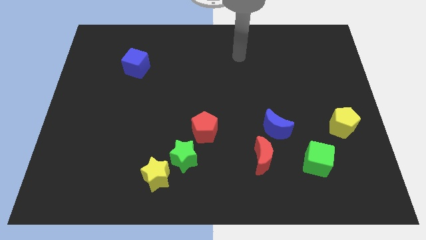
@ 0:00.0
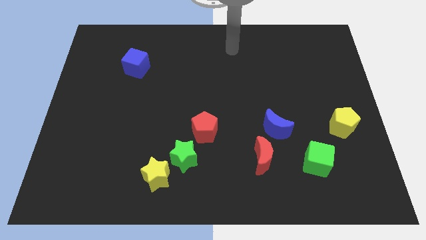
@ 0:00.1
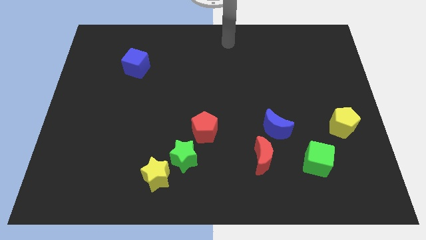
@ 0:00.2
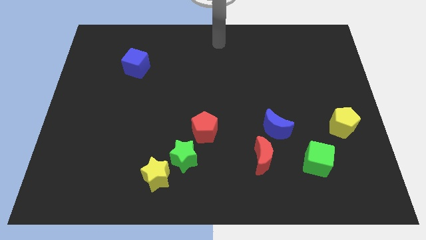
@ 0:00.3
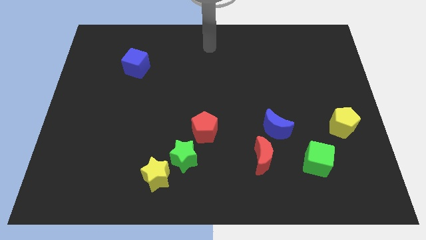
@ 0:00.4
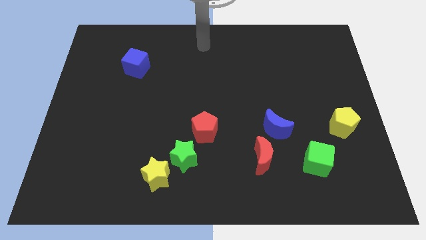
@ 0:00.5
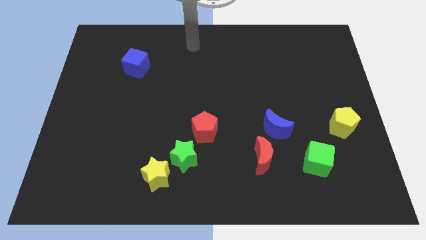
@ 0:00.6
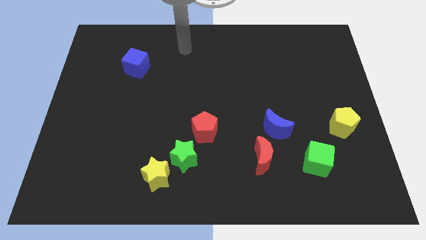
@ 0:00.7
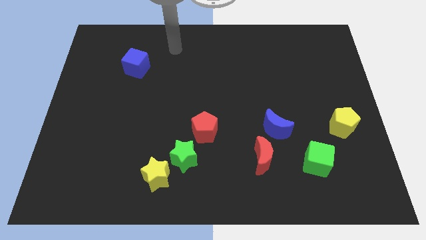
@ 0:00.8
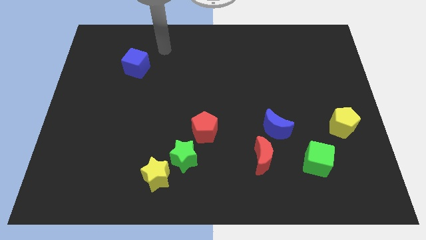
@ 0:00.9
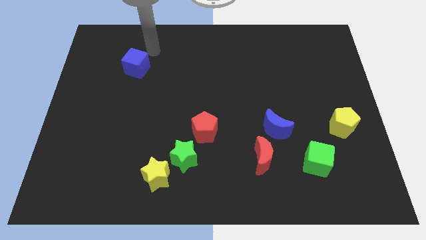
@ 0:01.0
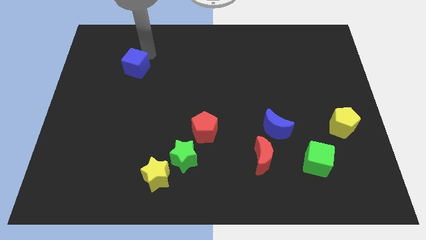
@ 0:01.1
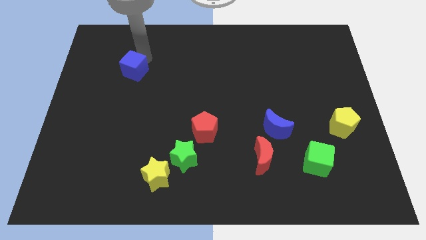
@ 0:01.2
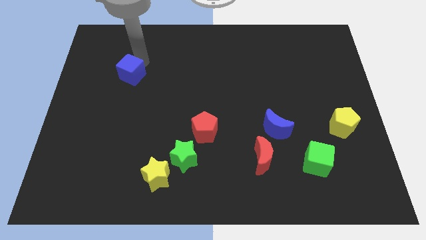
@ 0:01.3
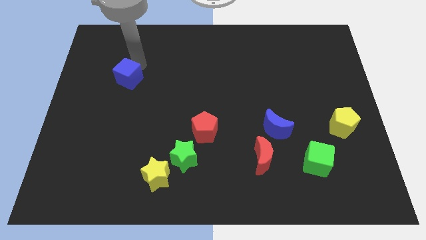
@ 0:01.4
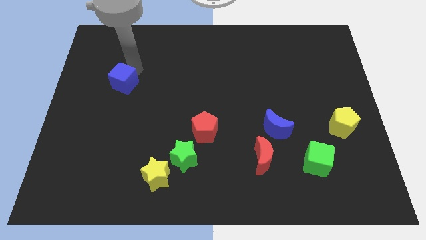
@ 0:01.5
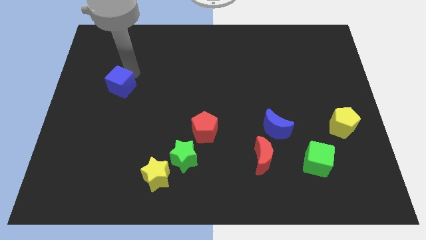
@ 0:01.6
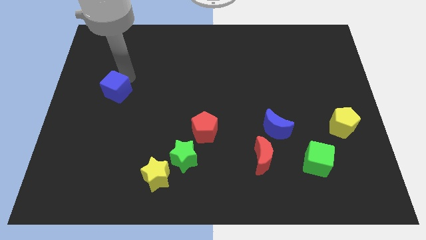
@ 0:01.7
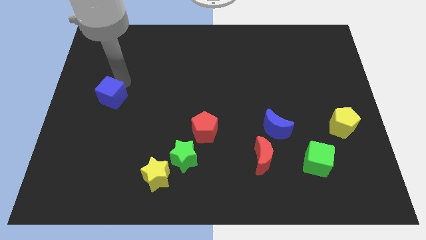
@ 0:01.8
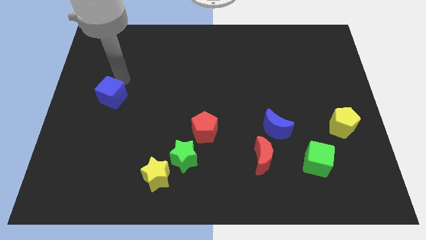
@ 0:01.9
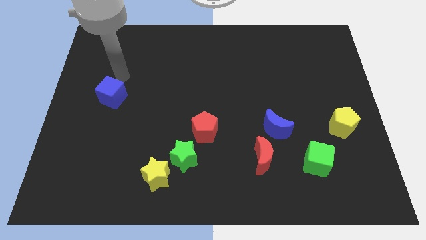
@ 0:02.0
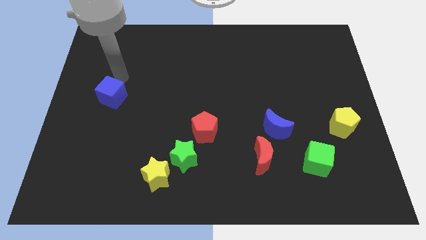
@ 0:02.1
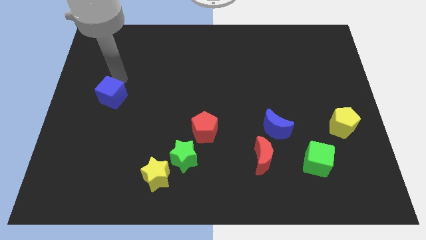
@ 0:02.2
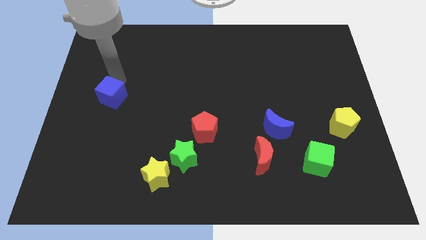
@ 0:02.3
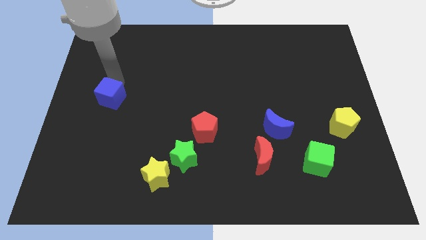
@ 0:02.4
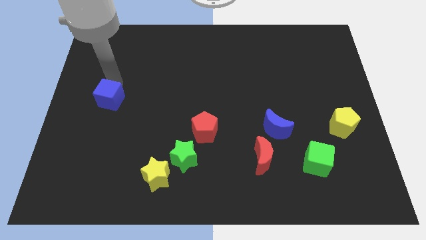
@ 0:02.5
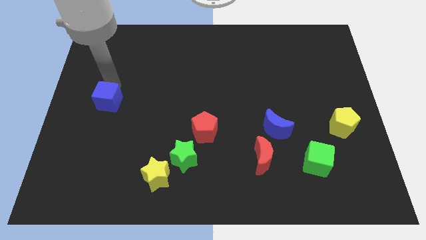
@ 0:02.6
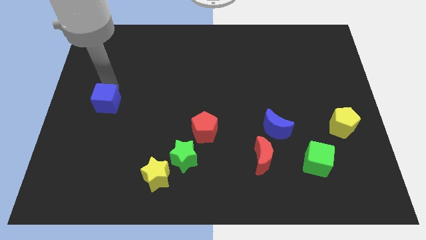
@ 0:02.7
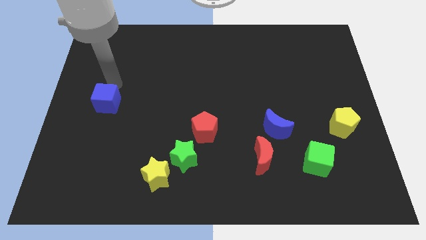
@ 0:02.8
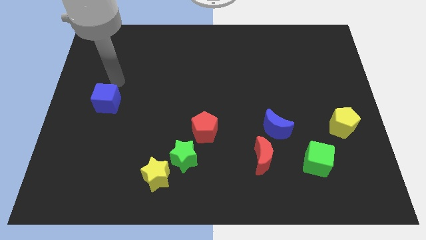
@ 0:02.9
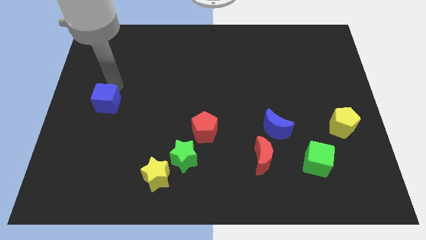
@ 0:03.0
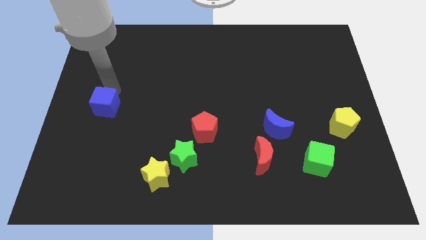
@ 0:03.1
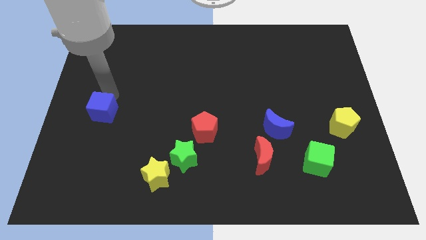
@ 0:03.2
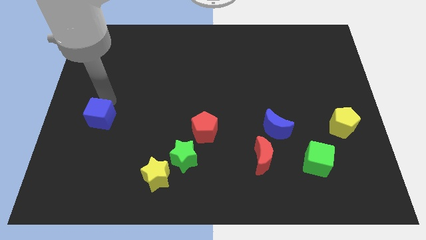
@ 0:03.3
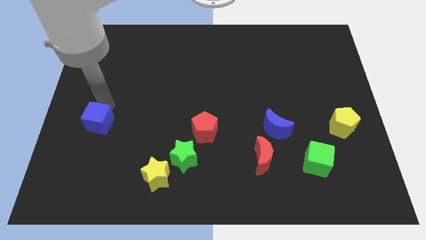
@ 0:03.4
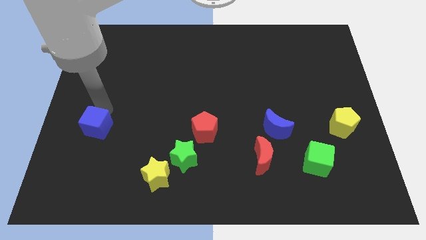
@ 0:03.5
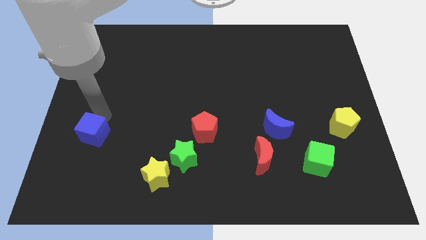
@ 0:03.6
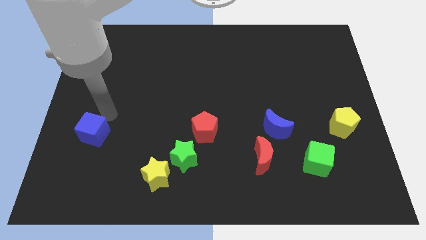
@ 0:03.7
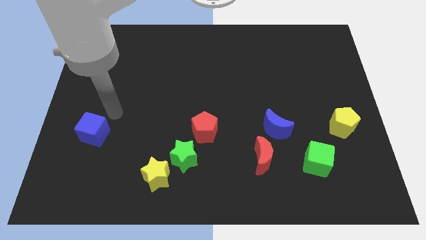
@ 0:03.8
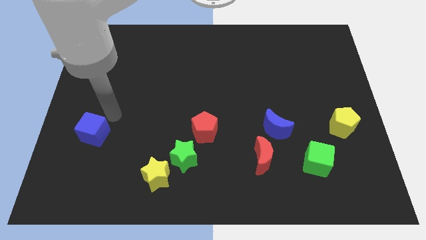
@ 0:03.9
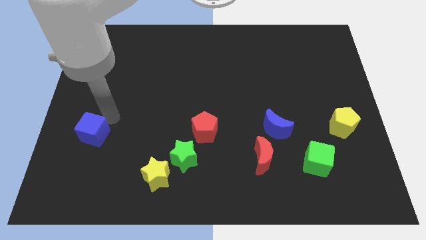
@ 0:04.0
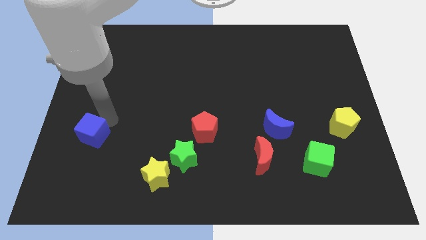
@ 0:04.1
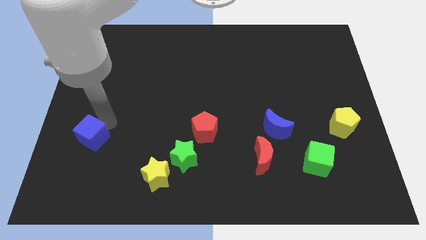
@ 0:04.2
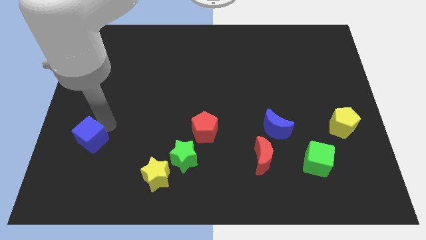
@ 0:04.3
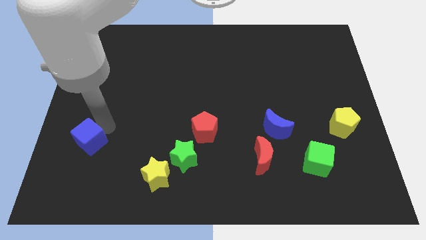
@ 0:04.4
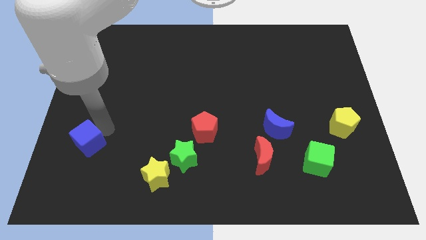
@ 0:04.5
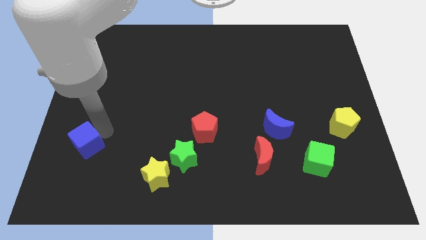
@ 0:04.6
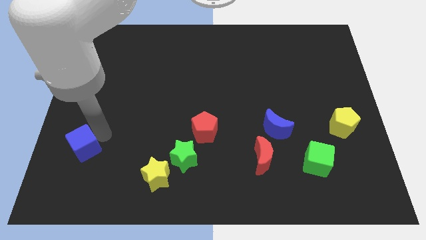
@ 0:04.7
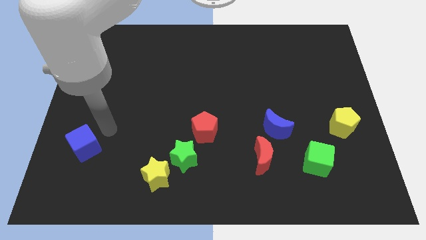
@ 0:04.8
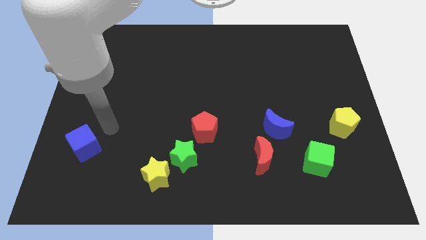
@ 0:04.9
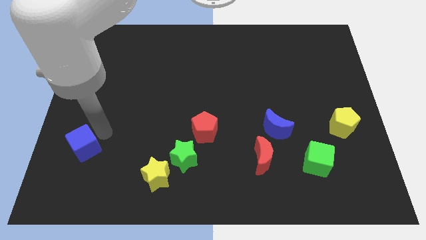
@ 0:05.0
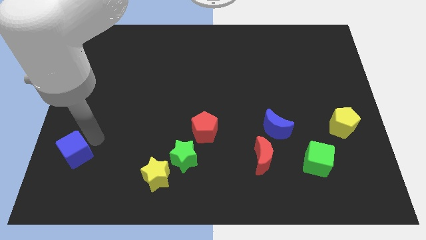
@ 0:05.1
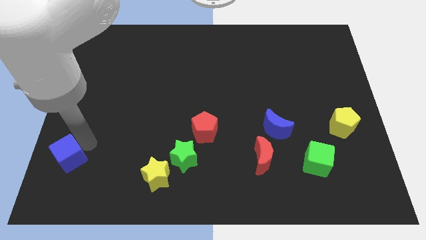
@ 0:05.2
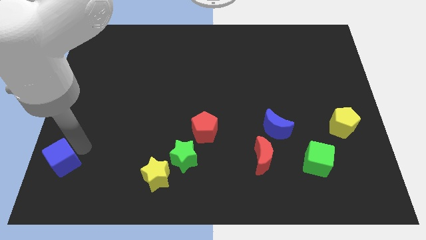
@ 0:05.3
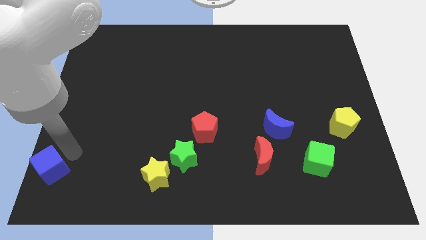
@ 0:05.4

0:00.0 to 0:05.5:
put the blue cube to the lower left corner

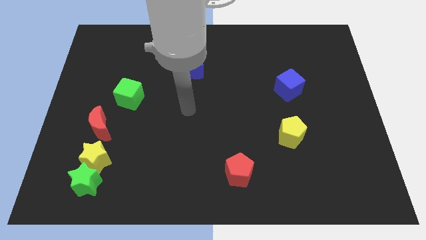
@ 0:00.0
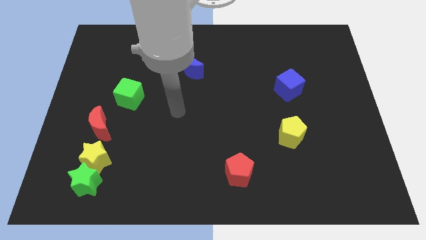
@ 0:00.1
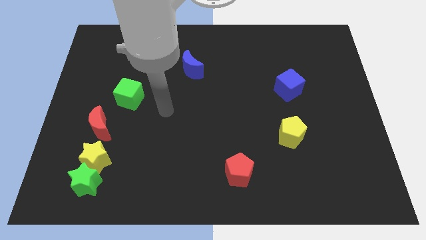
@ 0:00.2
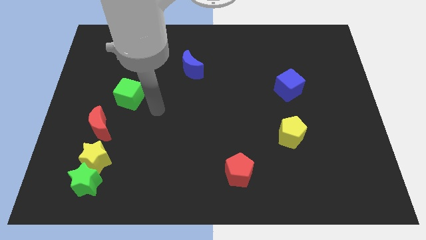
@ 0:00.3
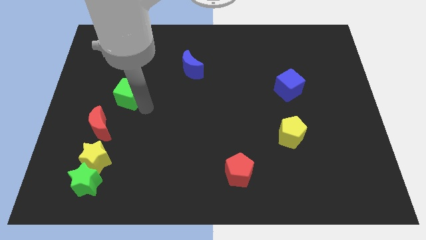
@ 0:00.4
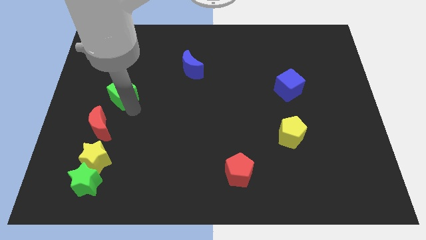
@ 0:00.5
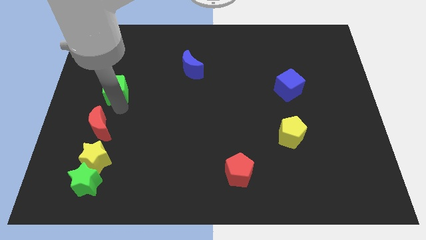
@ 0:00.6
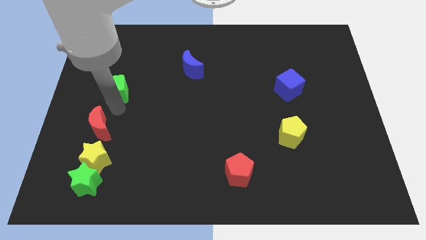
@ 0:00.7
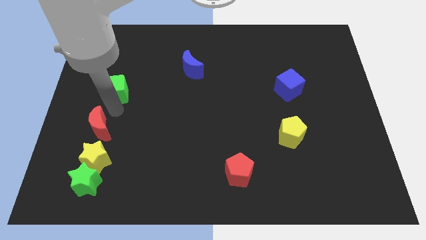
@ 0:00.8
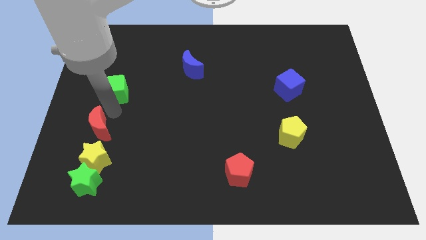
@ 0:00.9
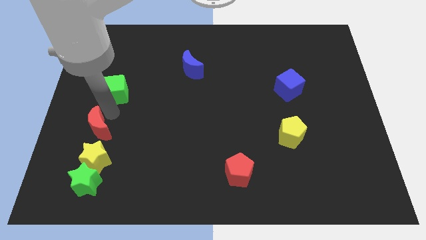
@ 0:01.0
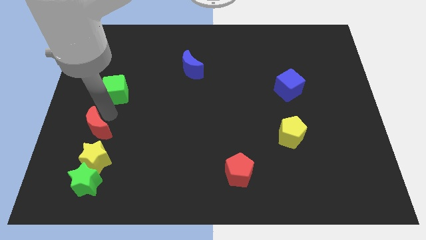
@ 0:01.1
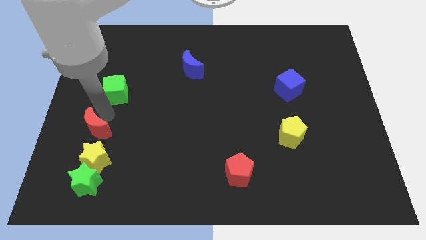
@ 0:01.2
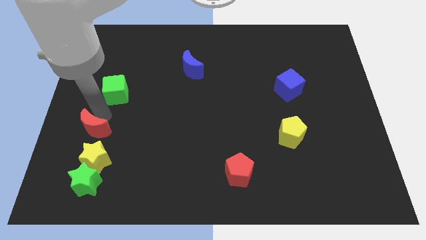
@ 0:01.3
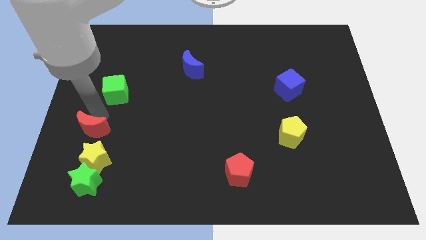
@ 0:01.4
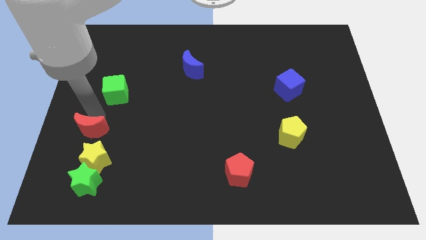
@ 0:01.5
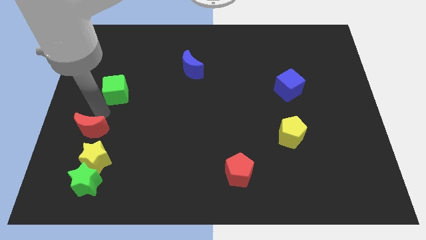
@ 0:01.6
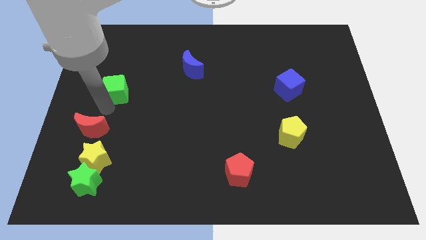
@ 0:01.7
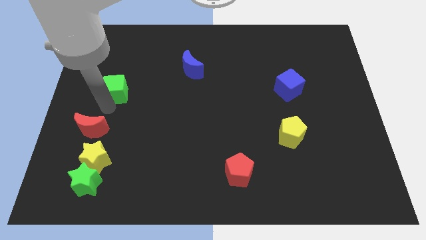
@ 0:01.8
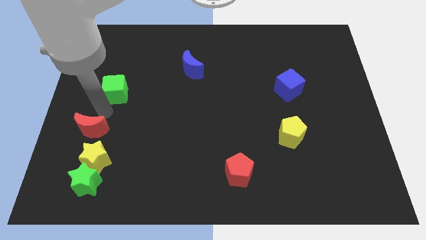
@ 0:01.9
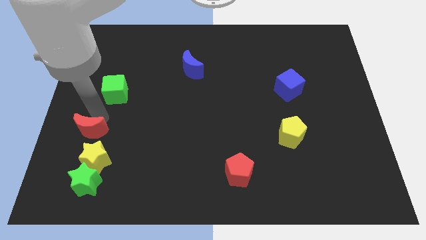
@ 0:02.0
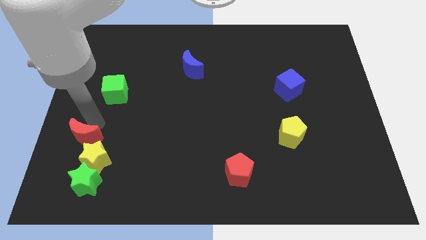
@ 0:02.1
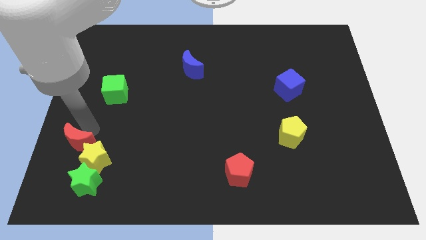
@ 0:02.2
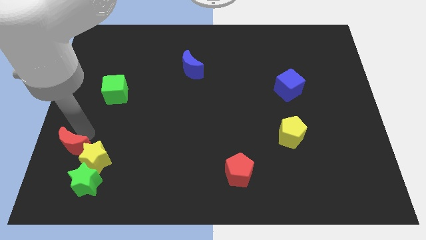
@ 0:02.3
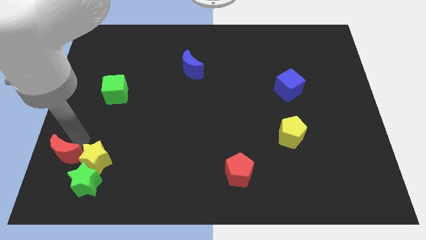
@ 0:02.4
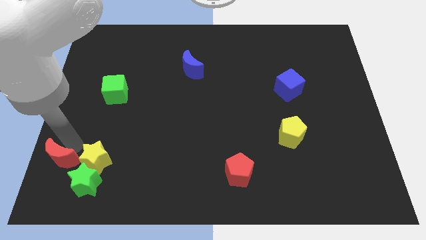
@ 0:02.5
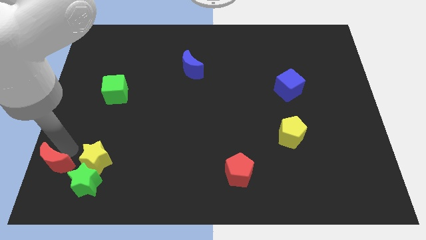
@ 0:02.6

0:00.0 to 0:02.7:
slide the red moon to the bottom left
